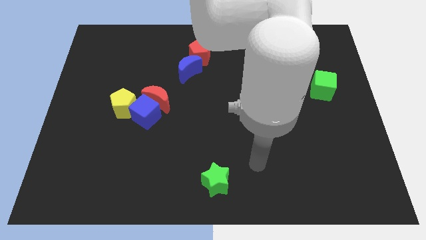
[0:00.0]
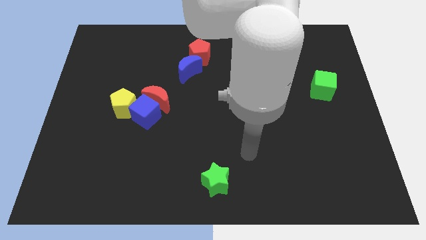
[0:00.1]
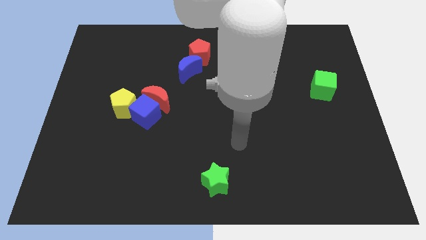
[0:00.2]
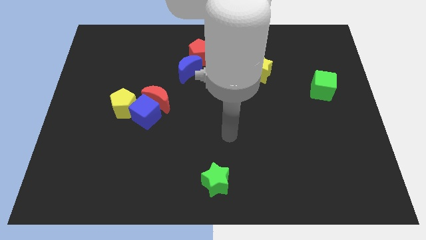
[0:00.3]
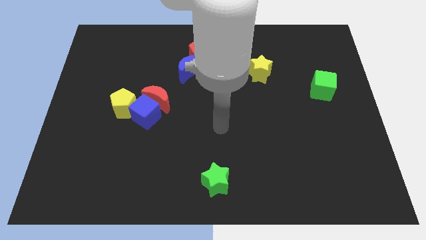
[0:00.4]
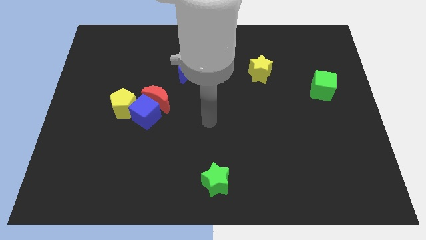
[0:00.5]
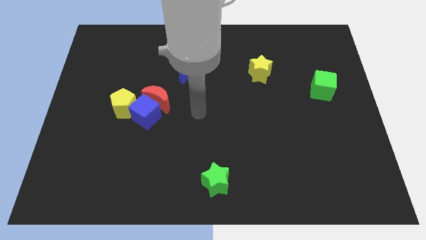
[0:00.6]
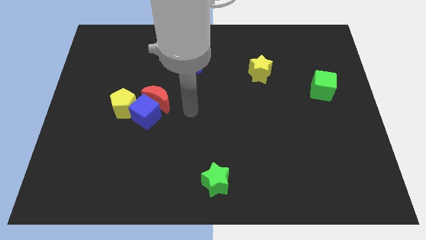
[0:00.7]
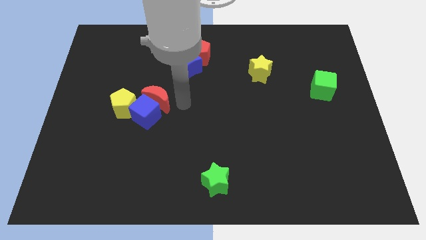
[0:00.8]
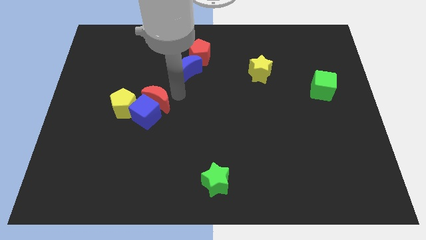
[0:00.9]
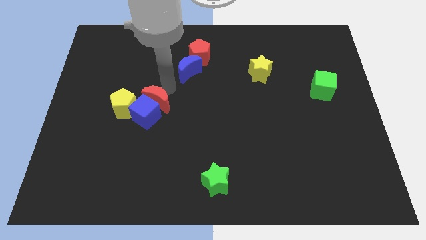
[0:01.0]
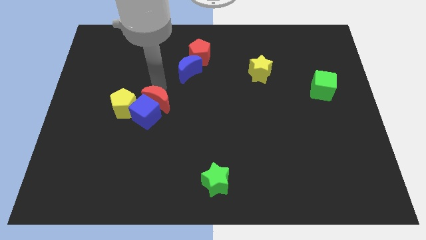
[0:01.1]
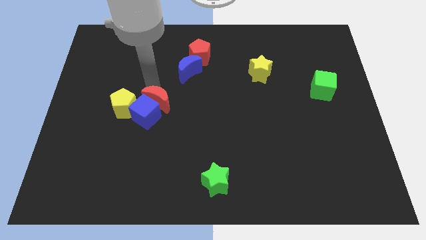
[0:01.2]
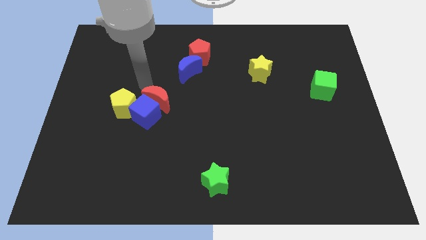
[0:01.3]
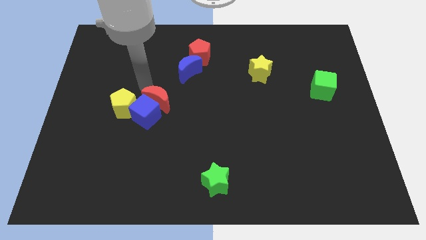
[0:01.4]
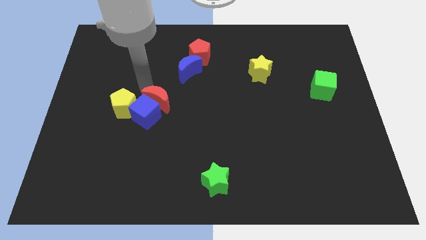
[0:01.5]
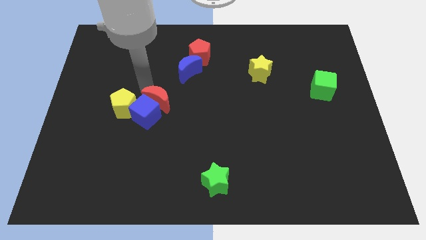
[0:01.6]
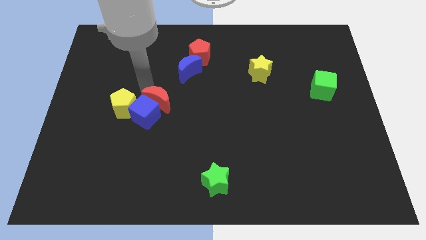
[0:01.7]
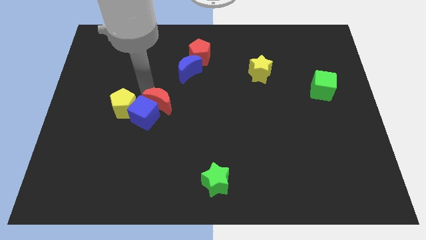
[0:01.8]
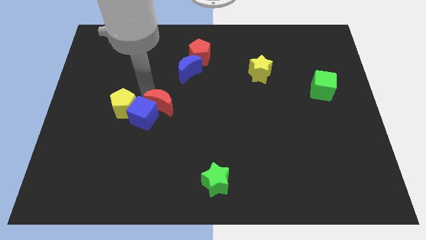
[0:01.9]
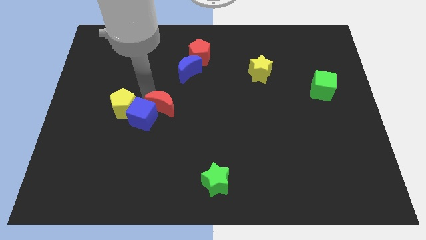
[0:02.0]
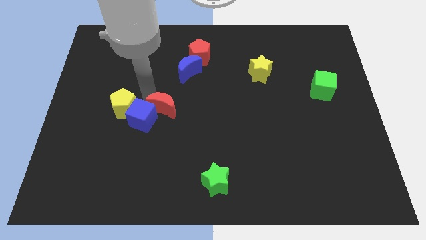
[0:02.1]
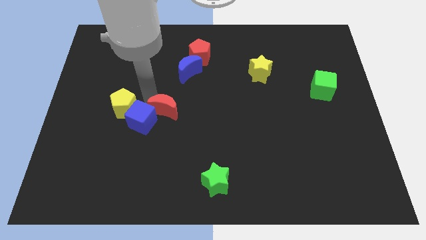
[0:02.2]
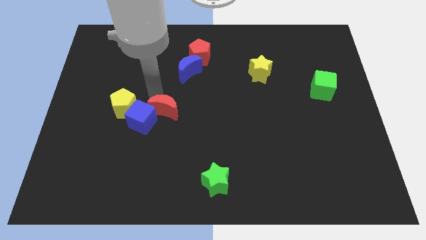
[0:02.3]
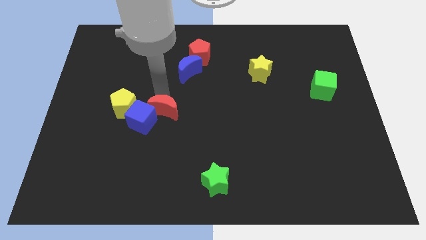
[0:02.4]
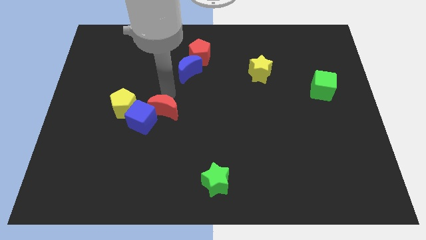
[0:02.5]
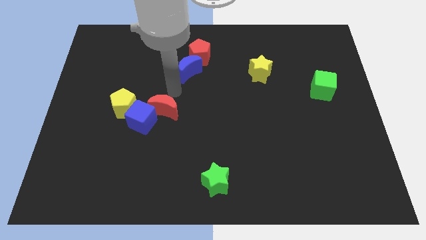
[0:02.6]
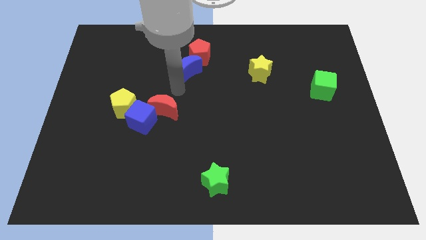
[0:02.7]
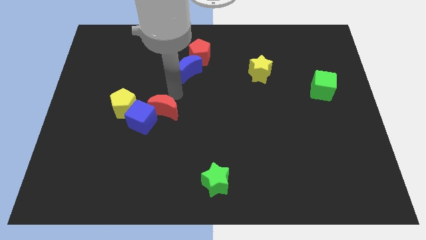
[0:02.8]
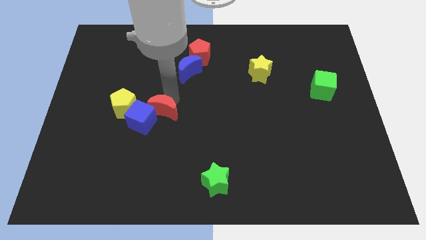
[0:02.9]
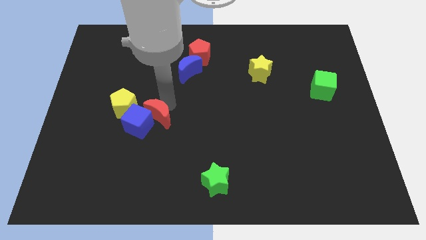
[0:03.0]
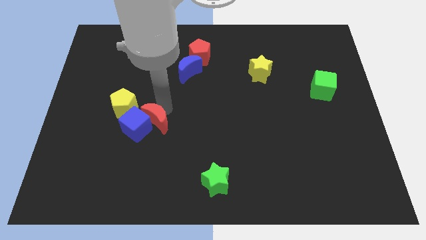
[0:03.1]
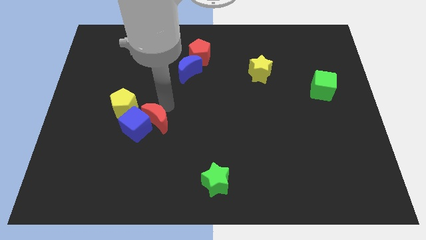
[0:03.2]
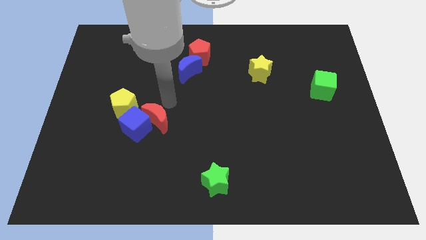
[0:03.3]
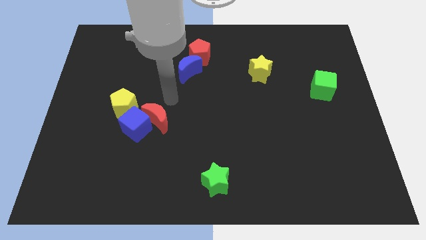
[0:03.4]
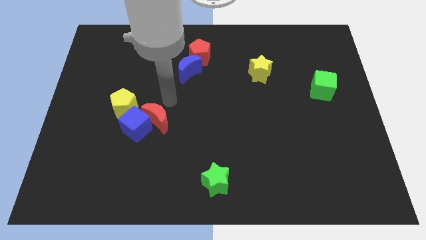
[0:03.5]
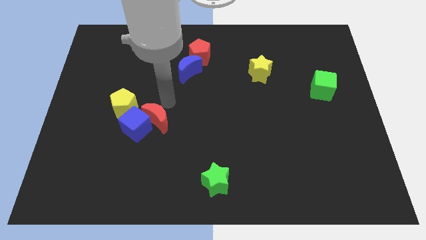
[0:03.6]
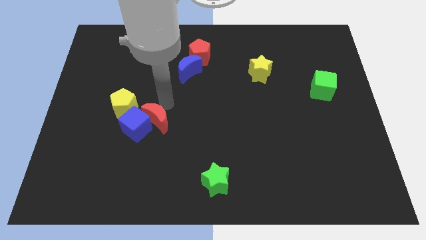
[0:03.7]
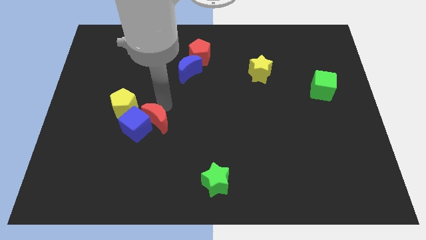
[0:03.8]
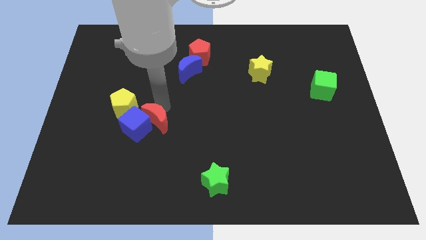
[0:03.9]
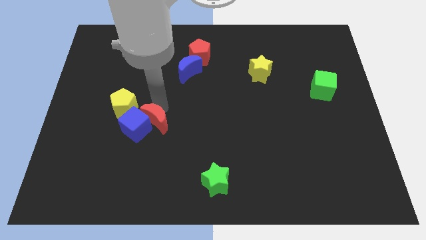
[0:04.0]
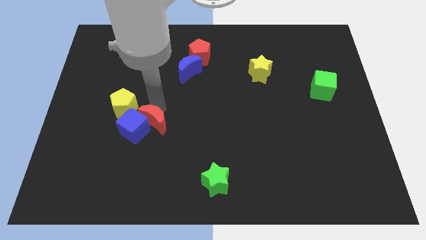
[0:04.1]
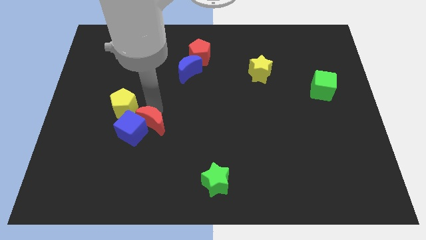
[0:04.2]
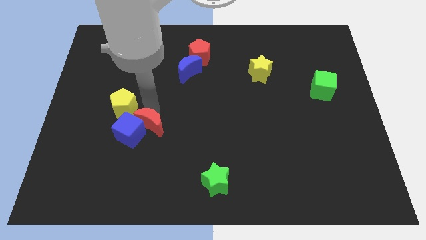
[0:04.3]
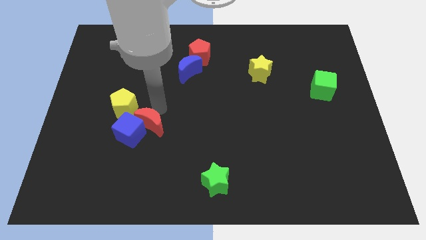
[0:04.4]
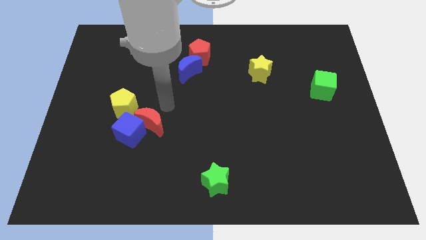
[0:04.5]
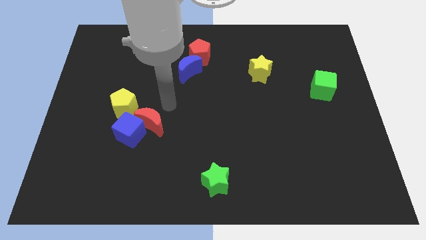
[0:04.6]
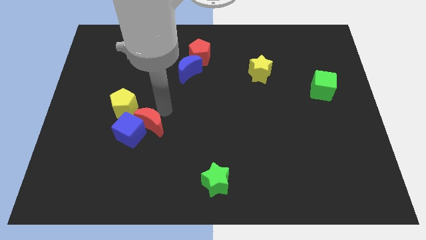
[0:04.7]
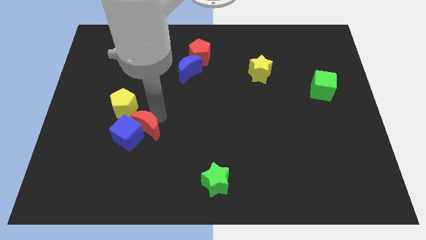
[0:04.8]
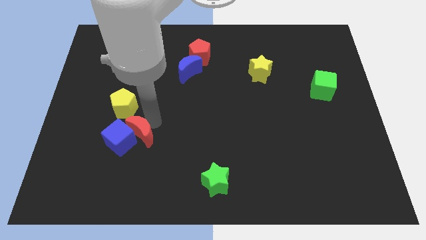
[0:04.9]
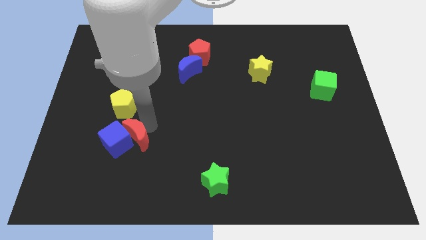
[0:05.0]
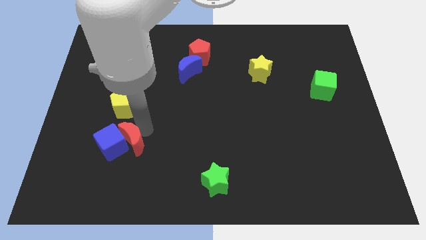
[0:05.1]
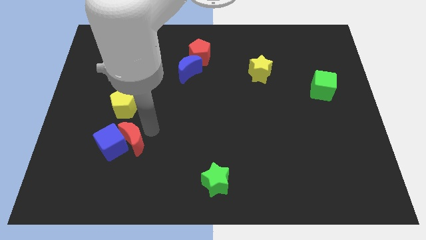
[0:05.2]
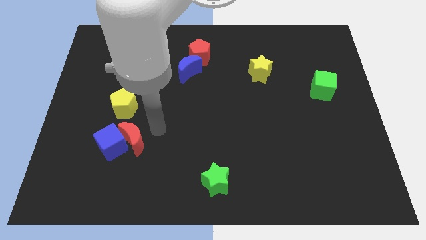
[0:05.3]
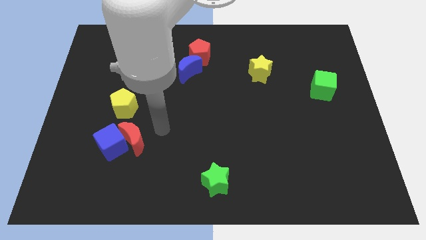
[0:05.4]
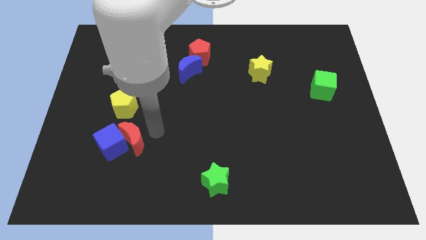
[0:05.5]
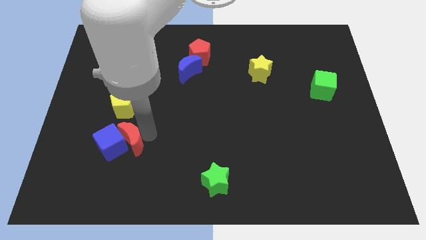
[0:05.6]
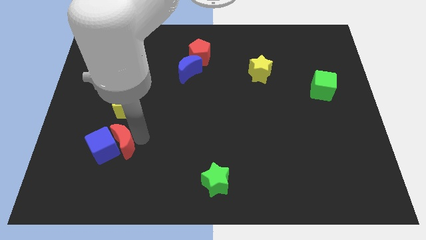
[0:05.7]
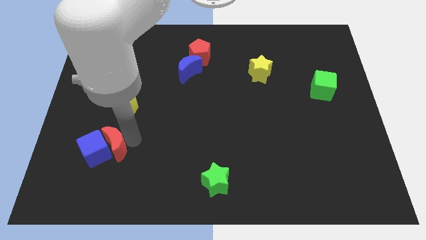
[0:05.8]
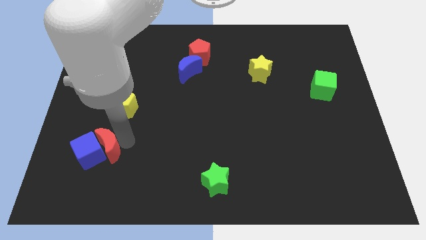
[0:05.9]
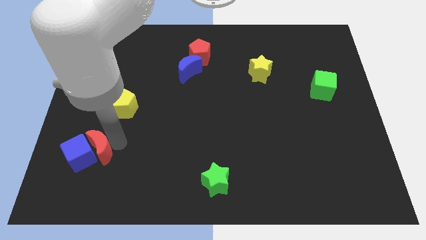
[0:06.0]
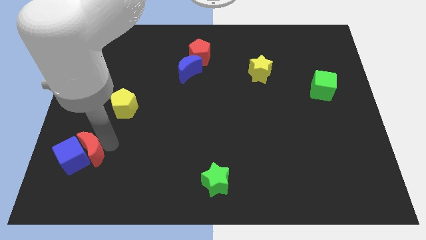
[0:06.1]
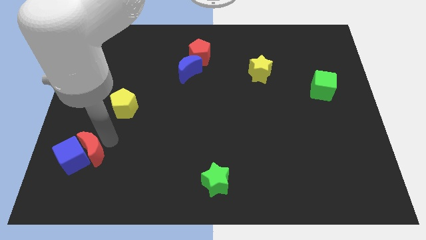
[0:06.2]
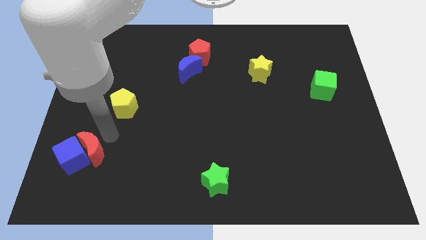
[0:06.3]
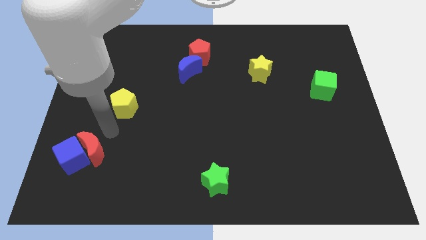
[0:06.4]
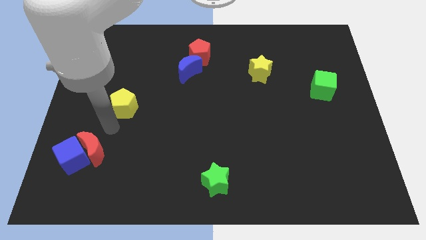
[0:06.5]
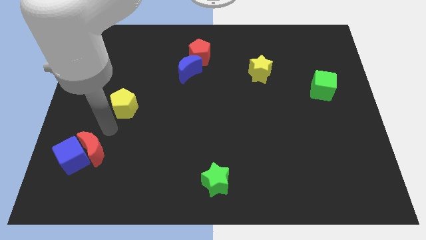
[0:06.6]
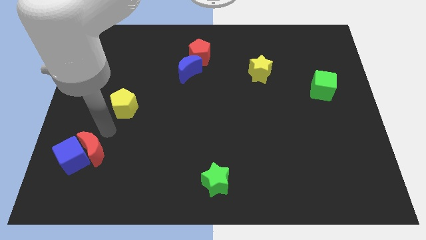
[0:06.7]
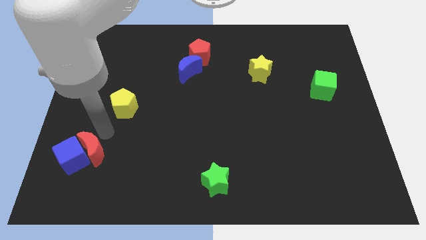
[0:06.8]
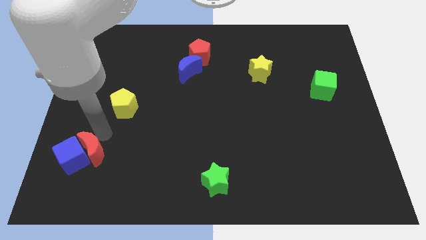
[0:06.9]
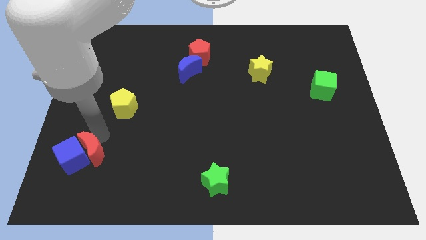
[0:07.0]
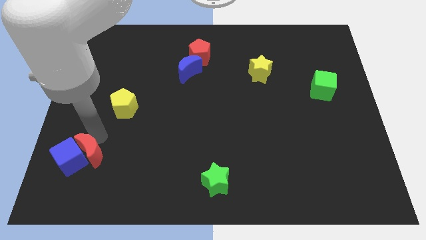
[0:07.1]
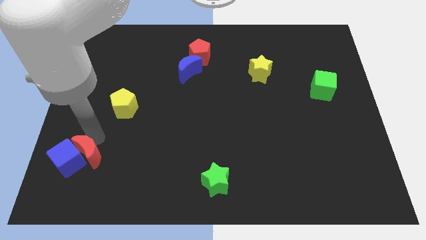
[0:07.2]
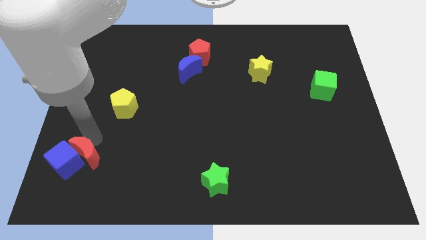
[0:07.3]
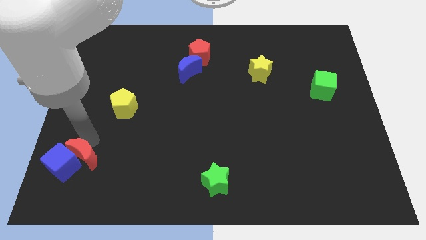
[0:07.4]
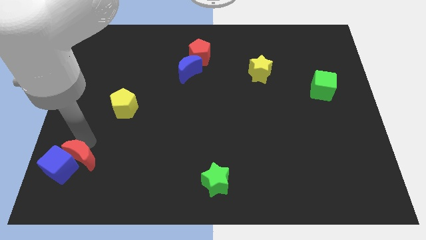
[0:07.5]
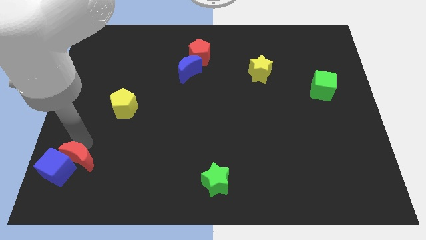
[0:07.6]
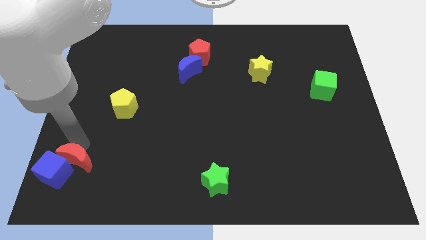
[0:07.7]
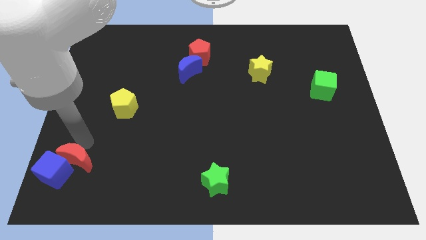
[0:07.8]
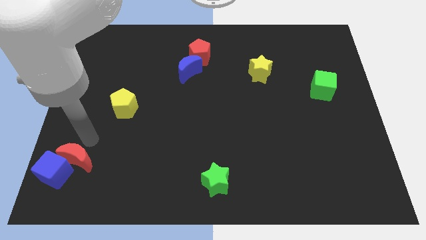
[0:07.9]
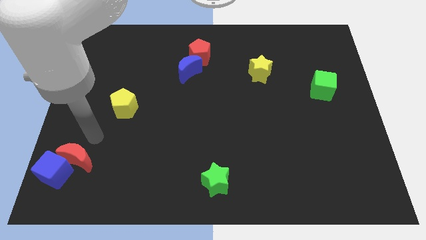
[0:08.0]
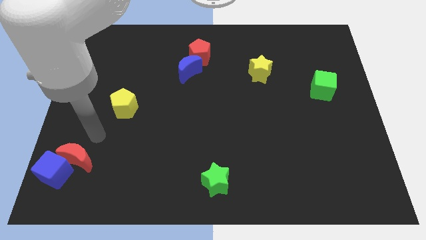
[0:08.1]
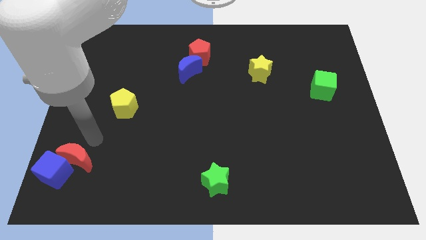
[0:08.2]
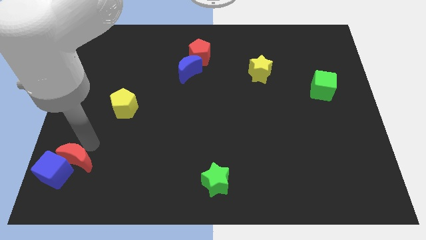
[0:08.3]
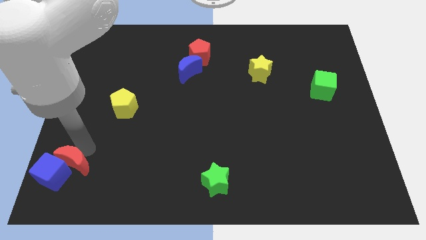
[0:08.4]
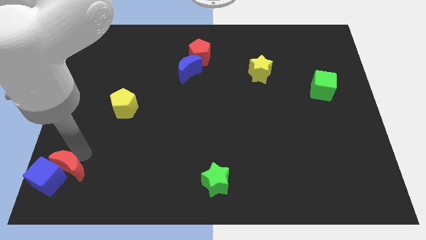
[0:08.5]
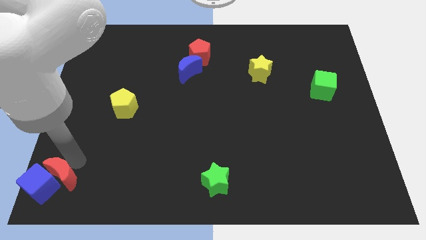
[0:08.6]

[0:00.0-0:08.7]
put the red moon to the bottom left
